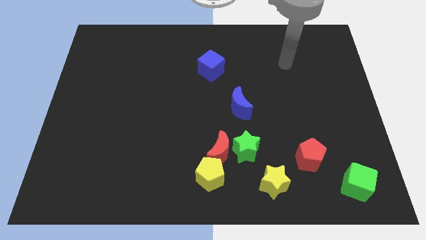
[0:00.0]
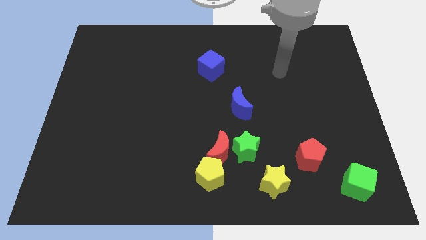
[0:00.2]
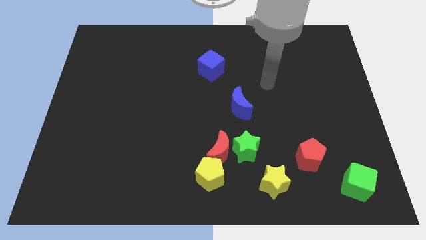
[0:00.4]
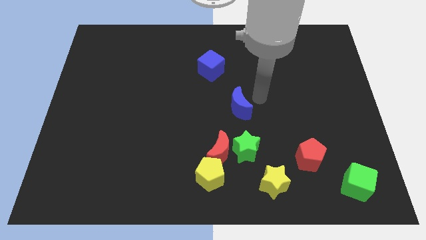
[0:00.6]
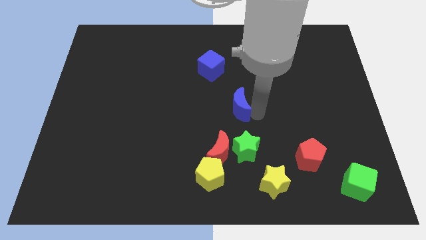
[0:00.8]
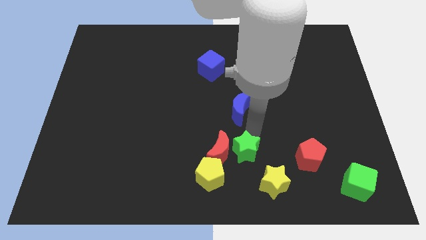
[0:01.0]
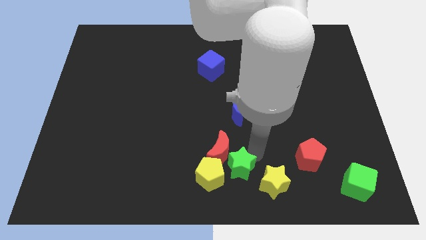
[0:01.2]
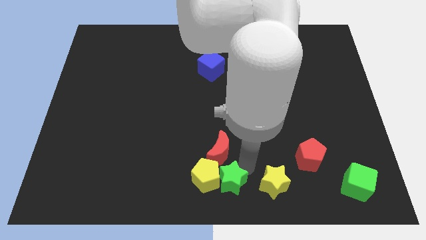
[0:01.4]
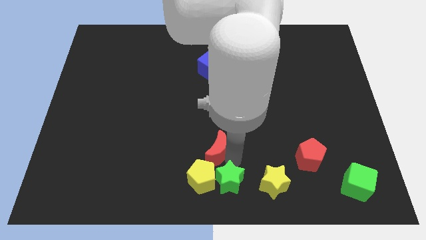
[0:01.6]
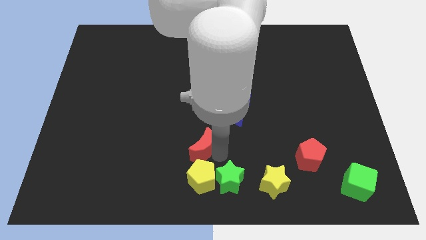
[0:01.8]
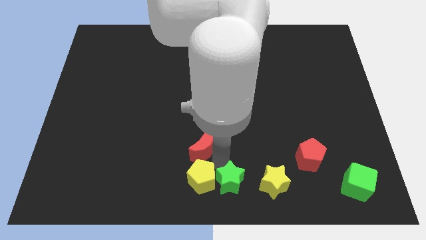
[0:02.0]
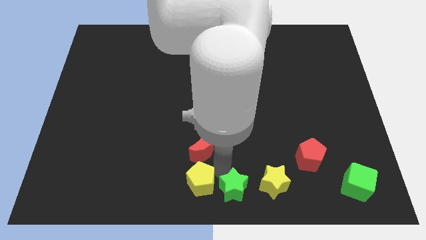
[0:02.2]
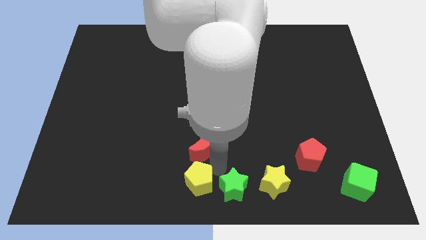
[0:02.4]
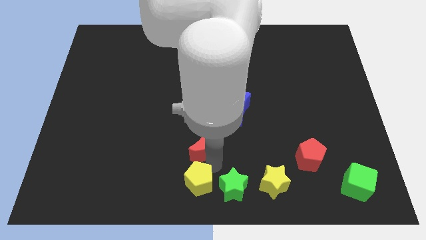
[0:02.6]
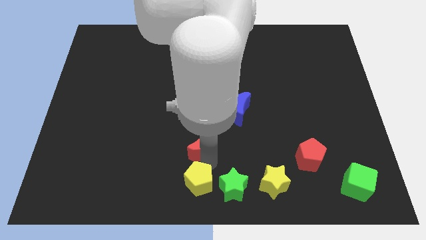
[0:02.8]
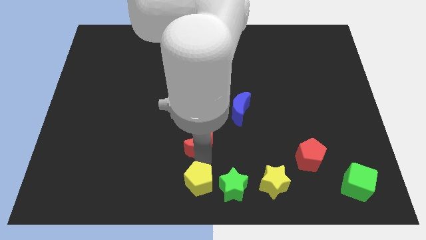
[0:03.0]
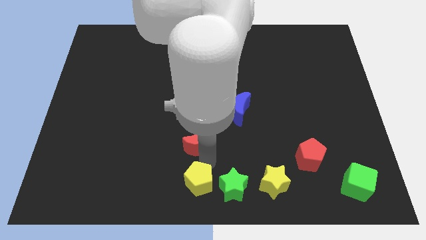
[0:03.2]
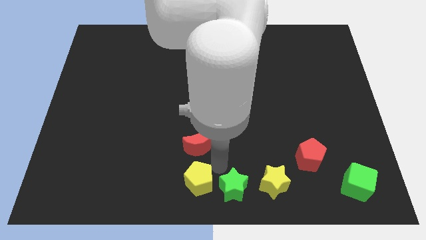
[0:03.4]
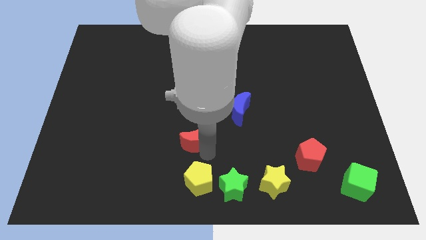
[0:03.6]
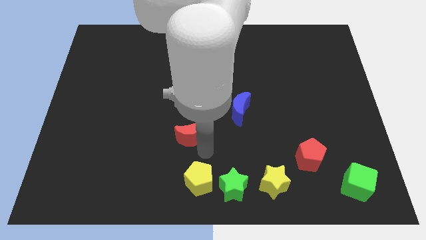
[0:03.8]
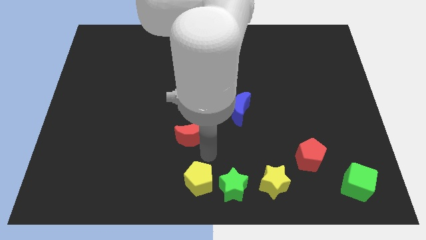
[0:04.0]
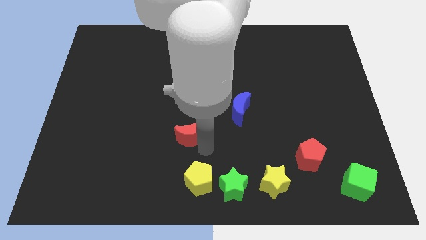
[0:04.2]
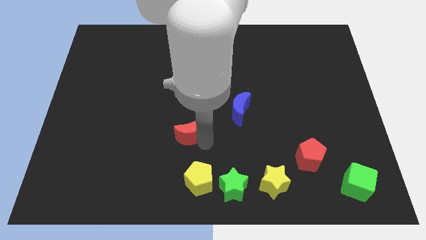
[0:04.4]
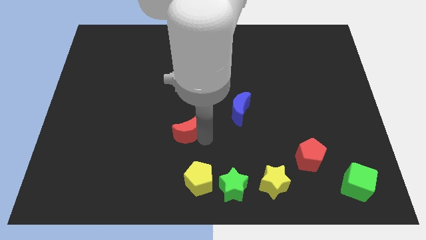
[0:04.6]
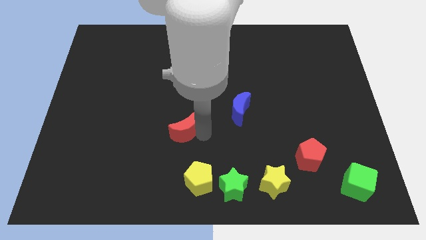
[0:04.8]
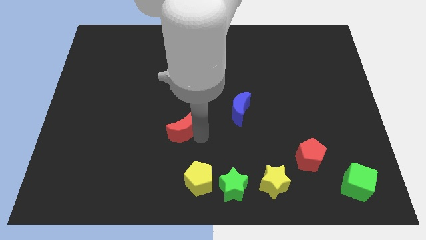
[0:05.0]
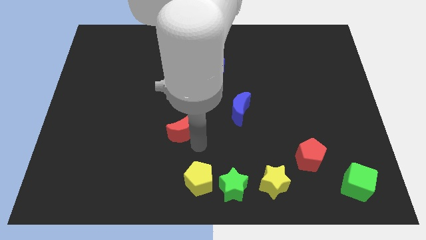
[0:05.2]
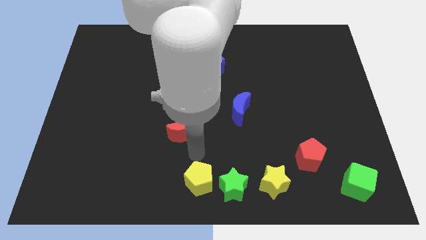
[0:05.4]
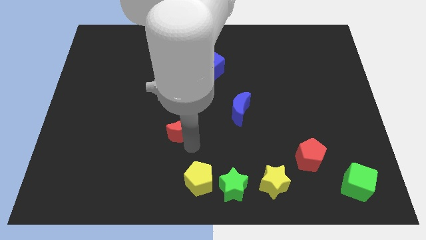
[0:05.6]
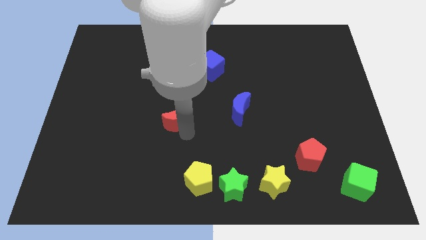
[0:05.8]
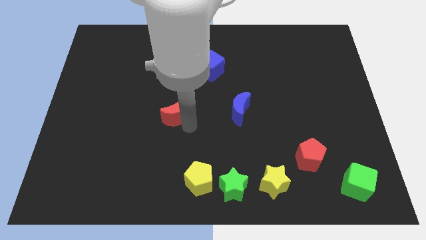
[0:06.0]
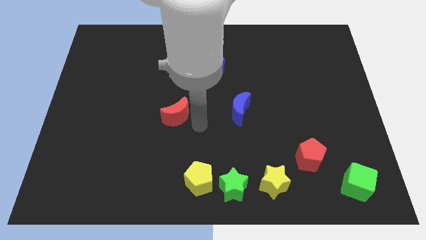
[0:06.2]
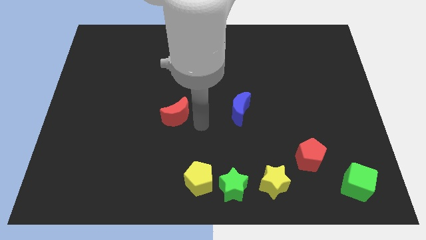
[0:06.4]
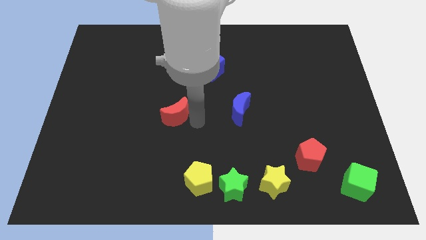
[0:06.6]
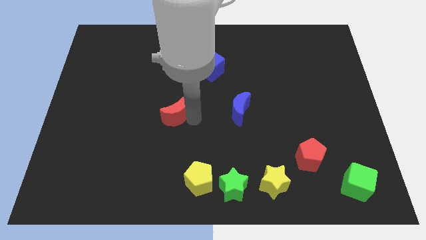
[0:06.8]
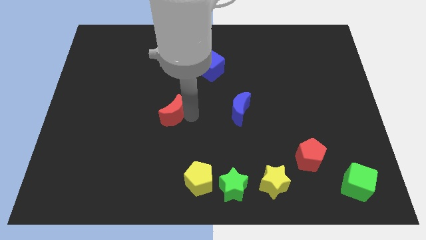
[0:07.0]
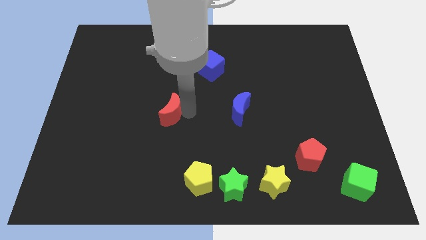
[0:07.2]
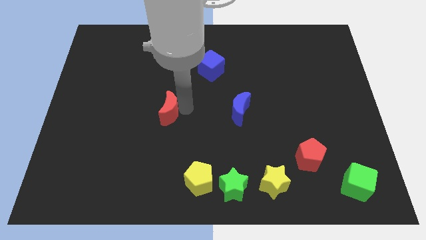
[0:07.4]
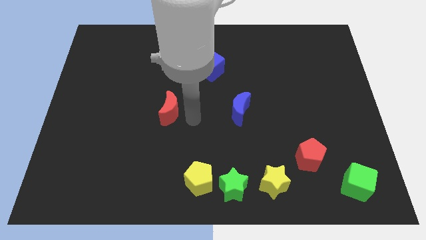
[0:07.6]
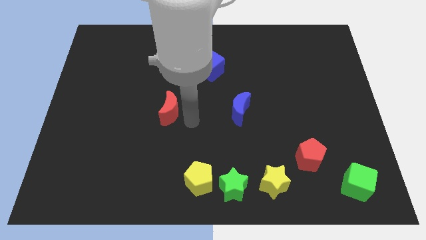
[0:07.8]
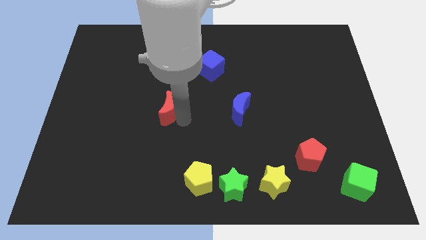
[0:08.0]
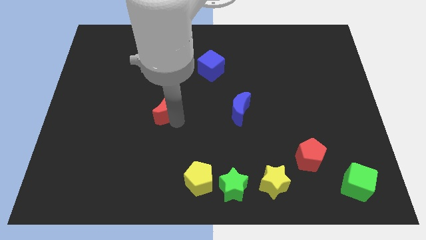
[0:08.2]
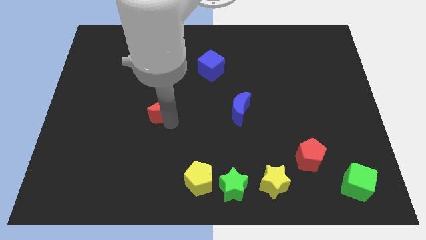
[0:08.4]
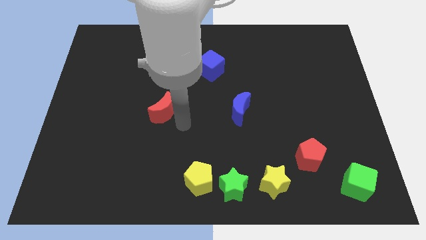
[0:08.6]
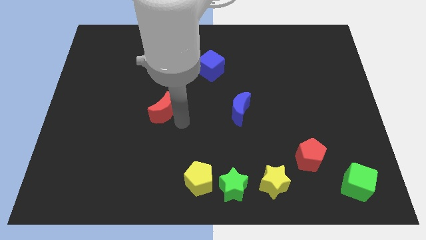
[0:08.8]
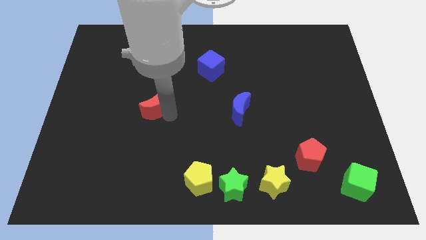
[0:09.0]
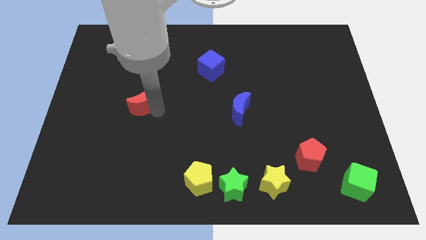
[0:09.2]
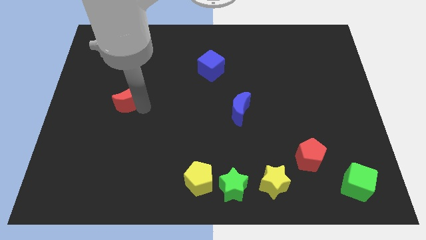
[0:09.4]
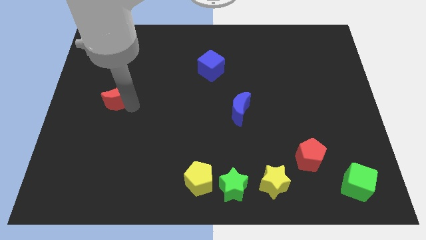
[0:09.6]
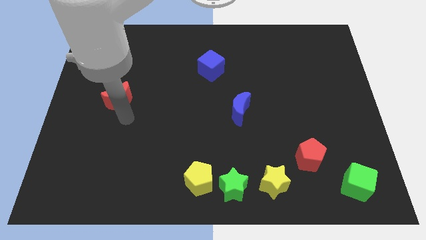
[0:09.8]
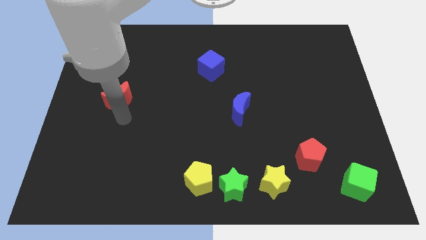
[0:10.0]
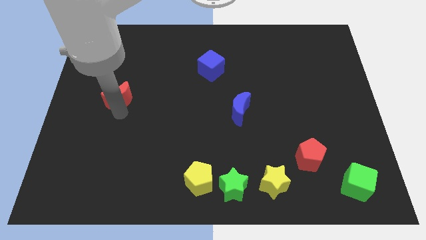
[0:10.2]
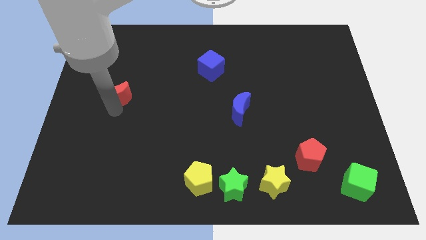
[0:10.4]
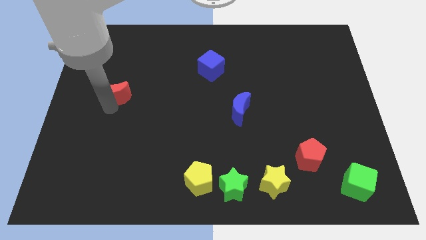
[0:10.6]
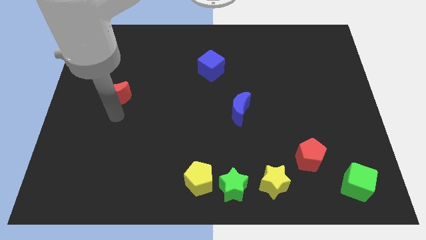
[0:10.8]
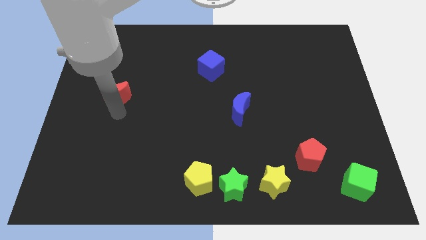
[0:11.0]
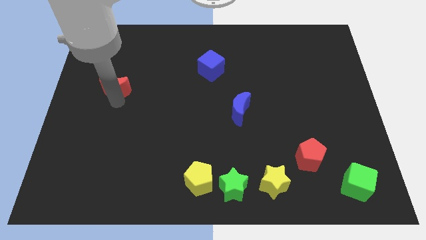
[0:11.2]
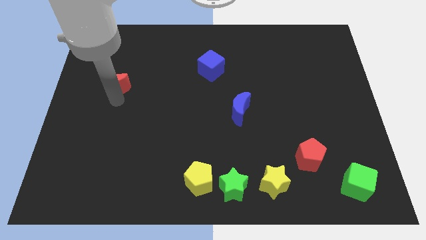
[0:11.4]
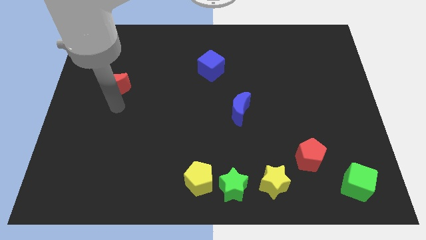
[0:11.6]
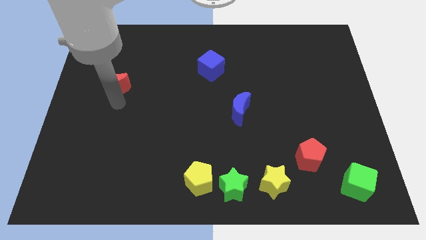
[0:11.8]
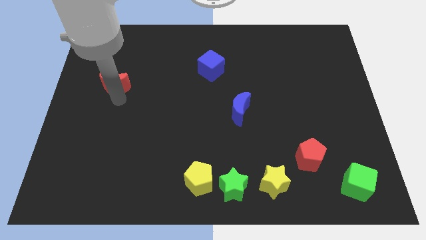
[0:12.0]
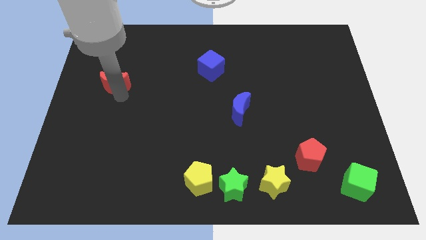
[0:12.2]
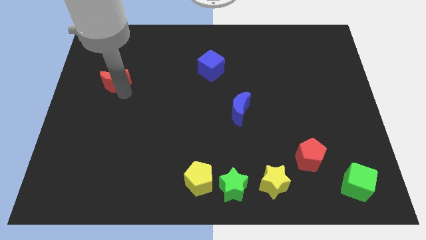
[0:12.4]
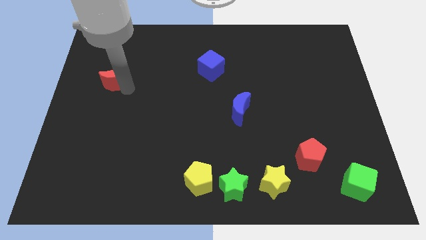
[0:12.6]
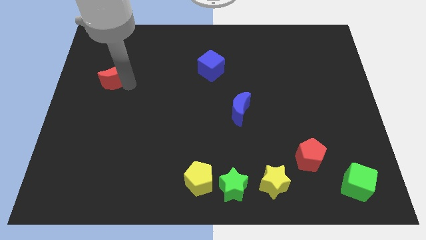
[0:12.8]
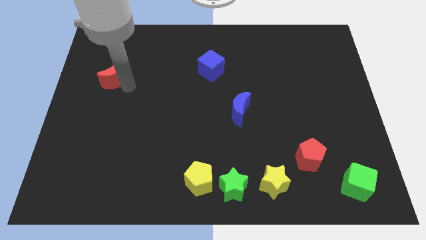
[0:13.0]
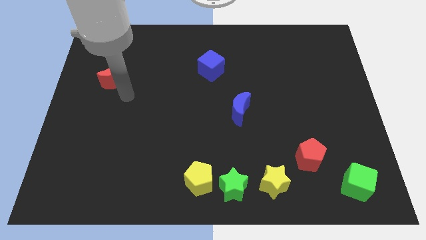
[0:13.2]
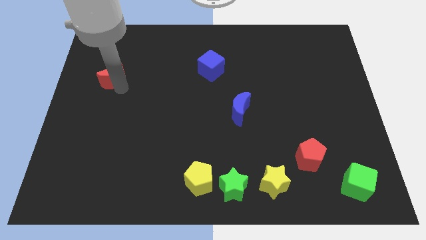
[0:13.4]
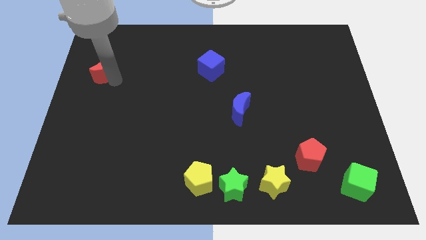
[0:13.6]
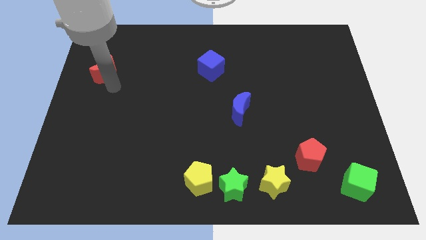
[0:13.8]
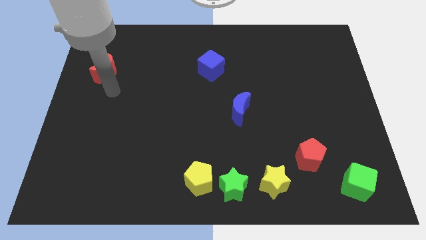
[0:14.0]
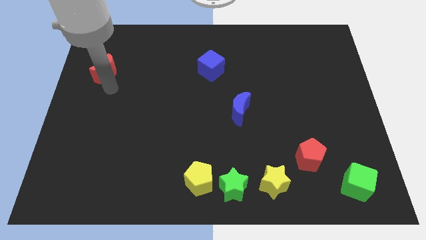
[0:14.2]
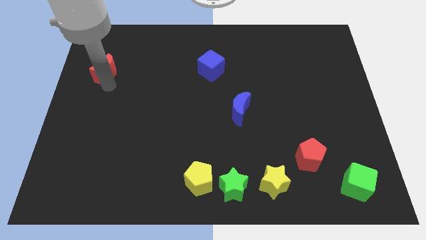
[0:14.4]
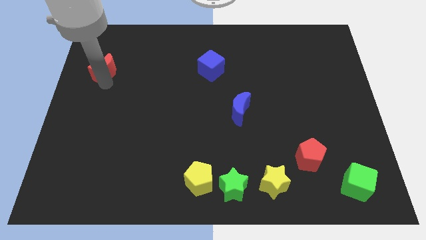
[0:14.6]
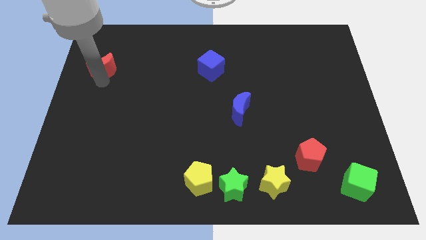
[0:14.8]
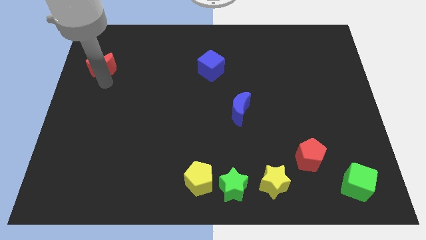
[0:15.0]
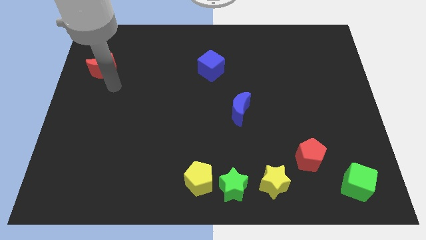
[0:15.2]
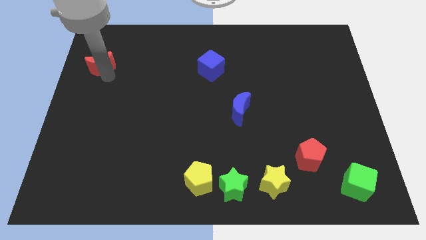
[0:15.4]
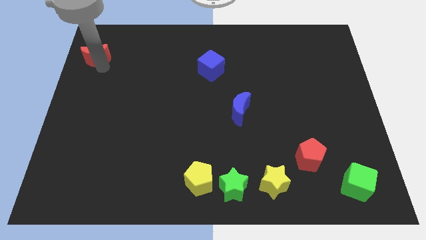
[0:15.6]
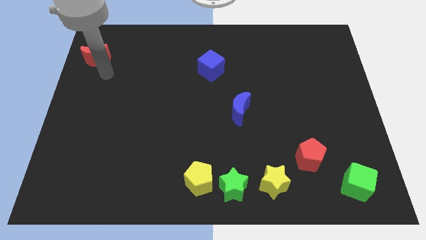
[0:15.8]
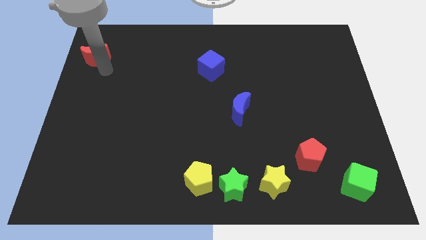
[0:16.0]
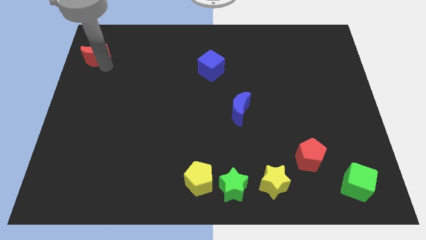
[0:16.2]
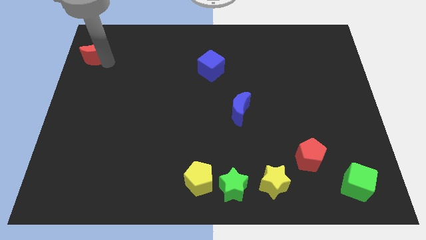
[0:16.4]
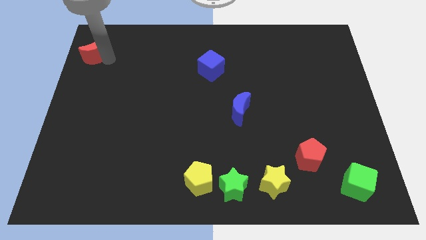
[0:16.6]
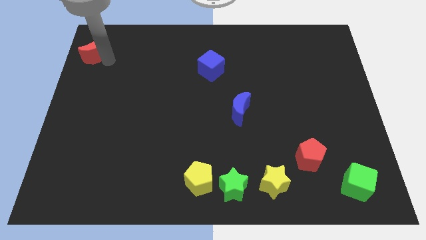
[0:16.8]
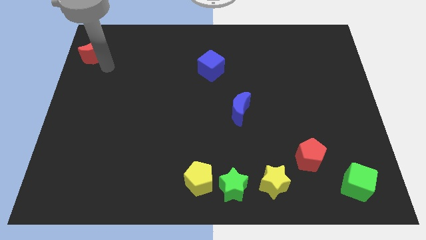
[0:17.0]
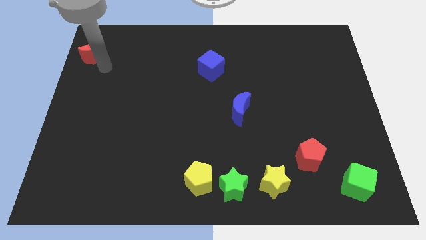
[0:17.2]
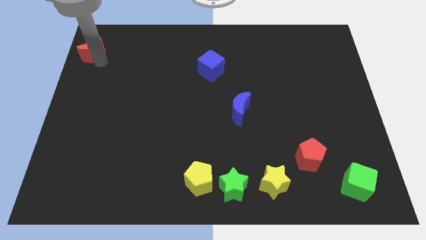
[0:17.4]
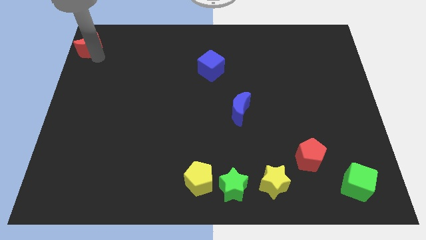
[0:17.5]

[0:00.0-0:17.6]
push the red moon to the top left corner
